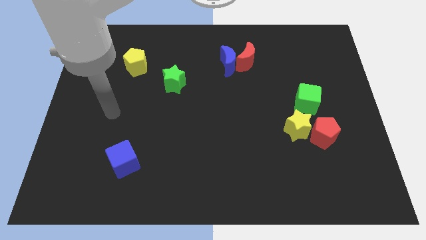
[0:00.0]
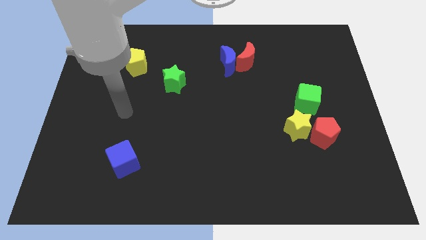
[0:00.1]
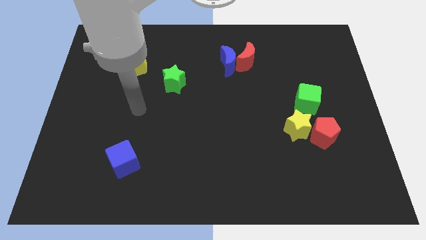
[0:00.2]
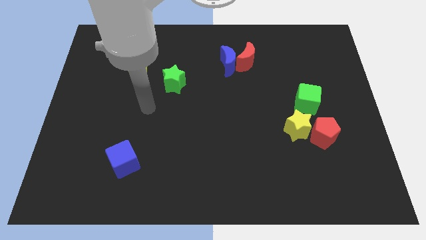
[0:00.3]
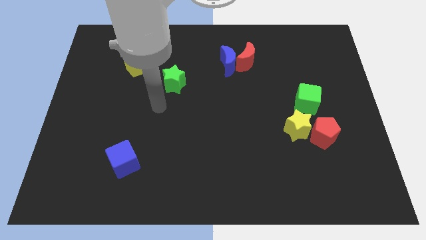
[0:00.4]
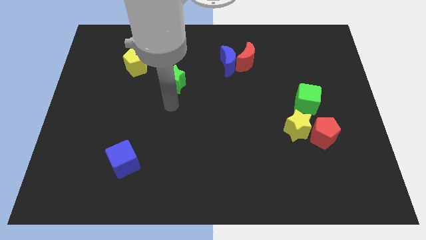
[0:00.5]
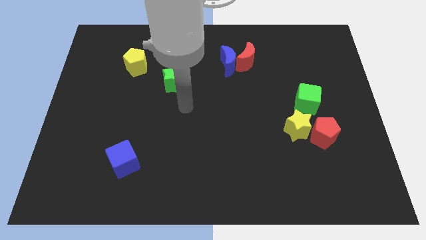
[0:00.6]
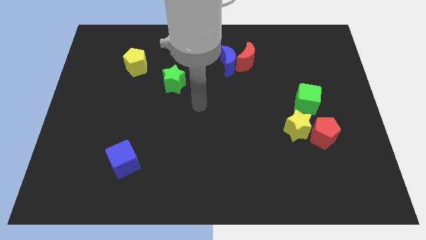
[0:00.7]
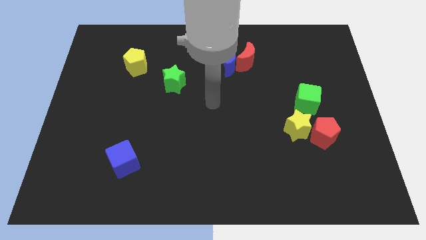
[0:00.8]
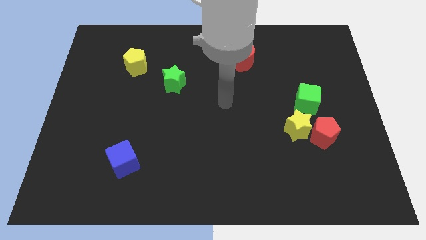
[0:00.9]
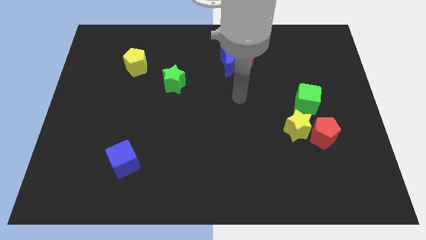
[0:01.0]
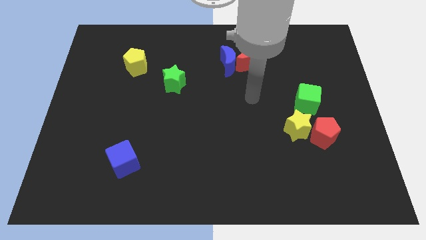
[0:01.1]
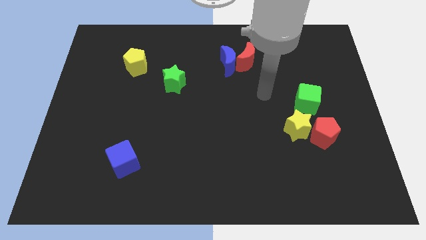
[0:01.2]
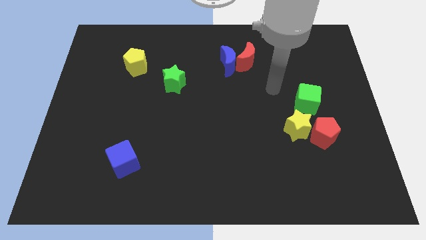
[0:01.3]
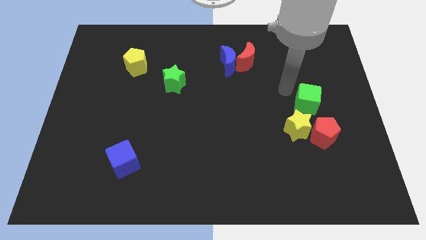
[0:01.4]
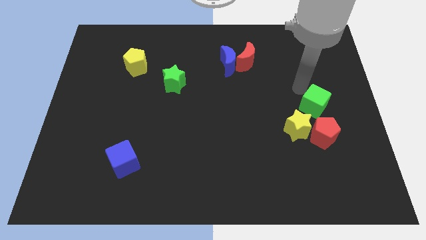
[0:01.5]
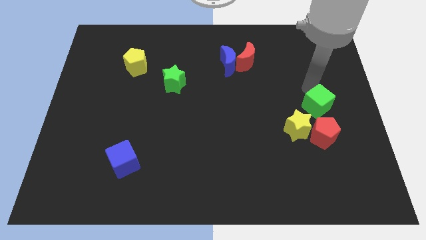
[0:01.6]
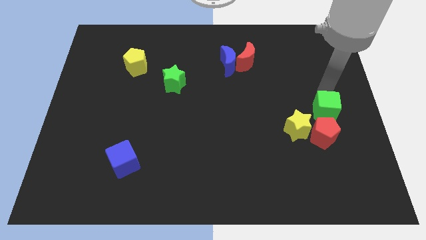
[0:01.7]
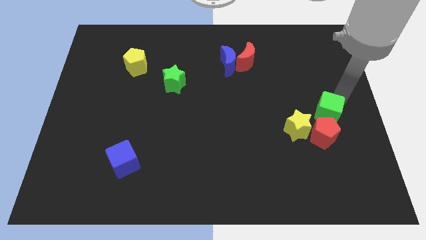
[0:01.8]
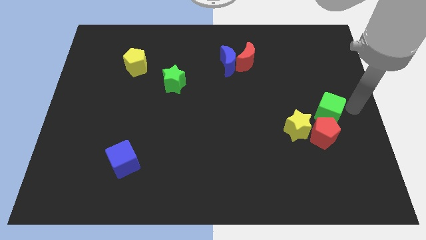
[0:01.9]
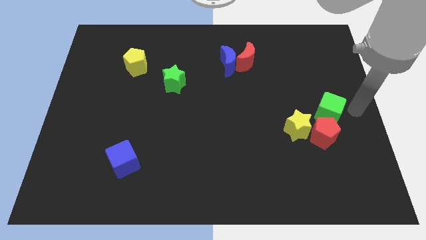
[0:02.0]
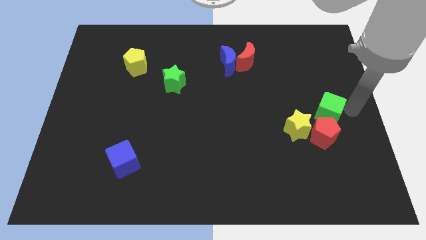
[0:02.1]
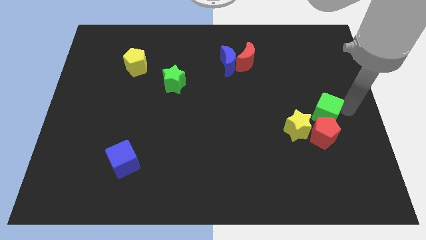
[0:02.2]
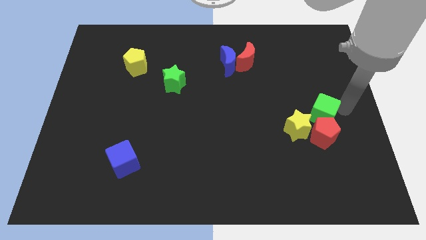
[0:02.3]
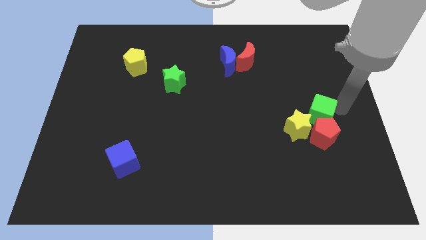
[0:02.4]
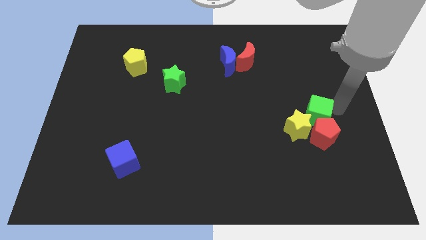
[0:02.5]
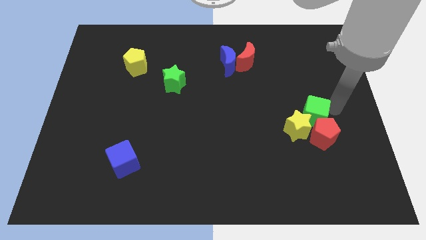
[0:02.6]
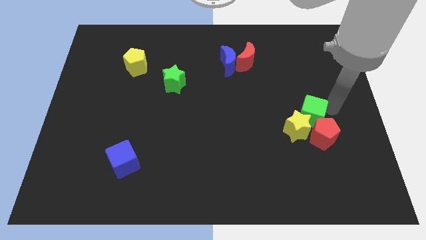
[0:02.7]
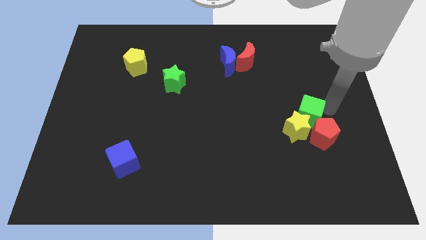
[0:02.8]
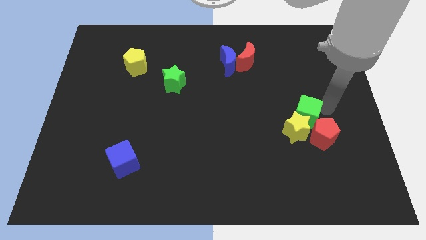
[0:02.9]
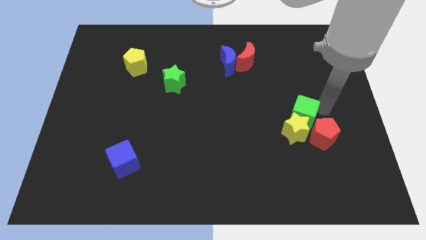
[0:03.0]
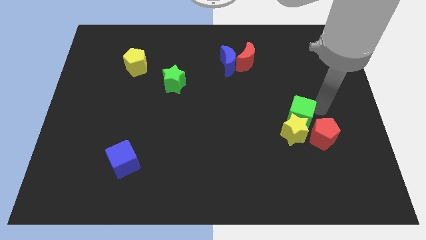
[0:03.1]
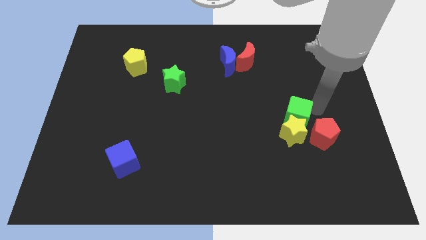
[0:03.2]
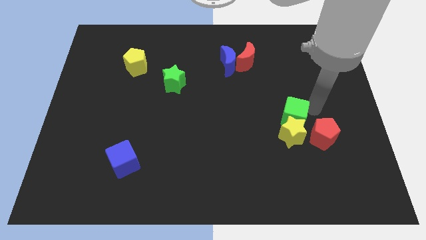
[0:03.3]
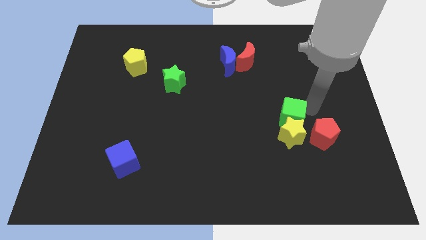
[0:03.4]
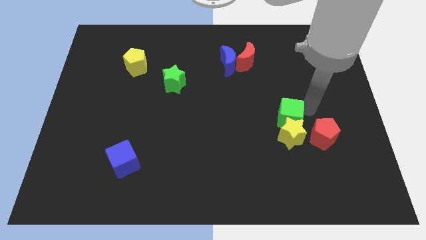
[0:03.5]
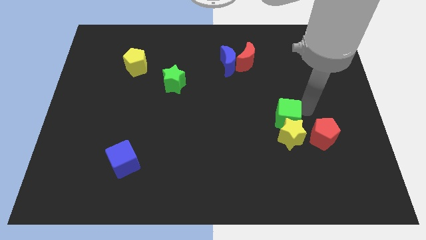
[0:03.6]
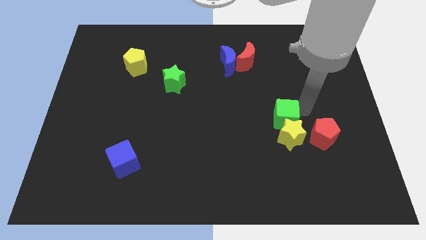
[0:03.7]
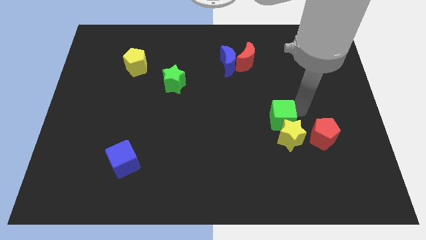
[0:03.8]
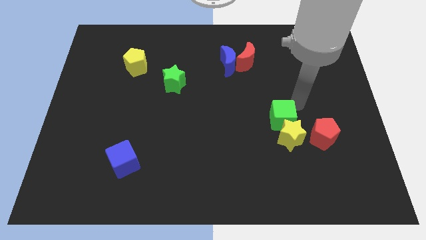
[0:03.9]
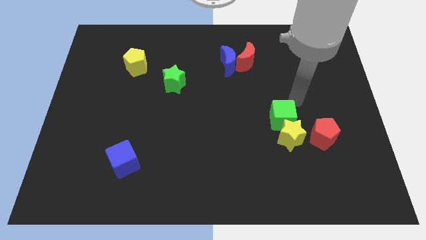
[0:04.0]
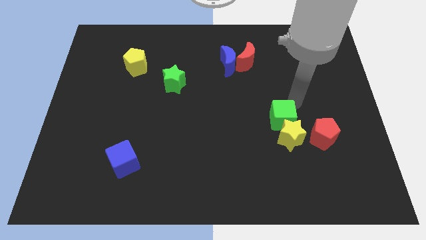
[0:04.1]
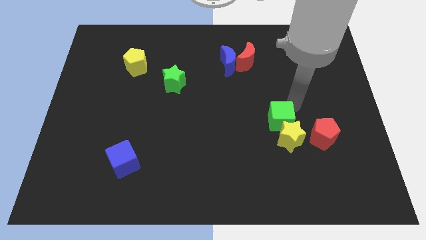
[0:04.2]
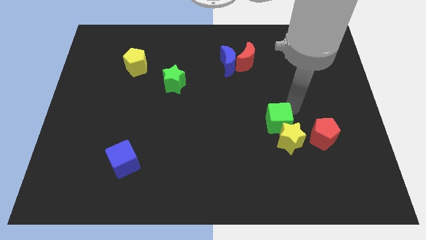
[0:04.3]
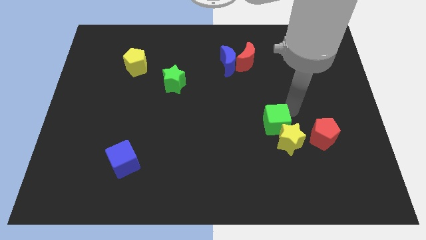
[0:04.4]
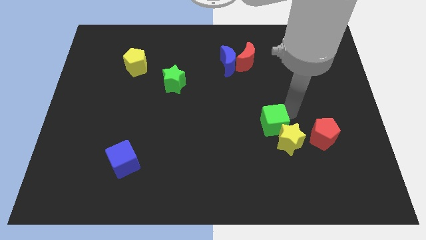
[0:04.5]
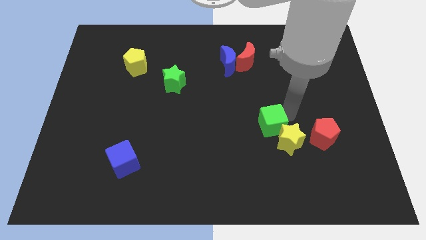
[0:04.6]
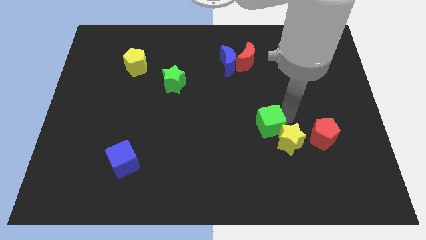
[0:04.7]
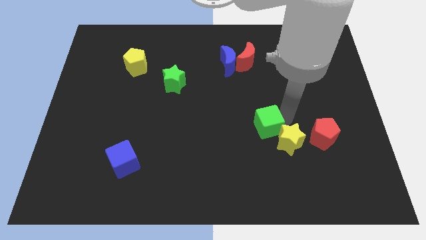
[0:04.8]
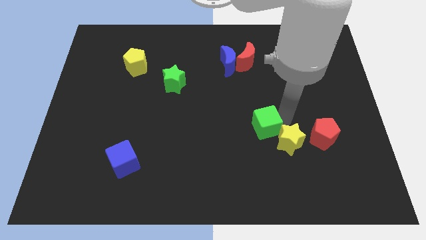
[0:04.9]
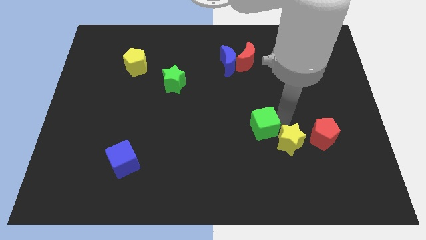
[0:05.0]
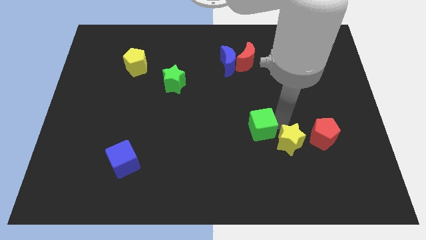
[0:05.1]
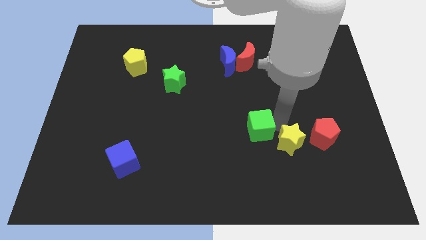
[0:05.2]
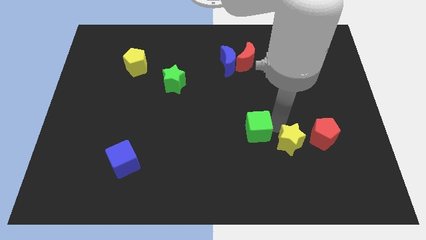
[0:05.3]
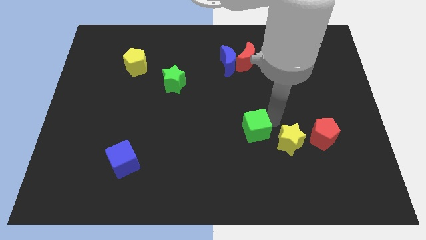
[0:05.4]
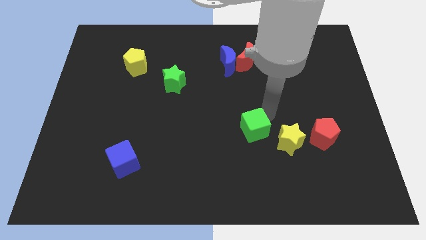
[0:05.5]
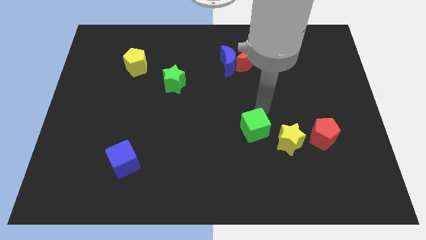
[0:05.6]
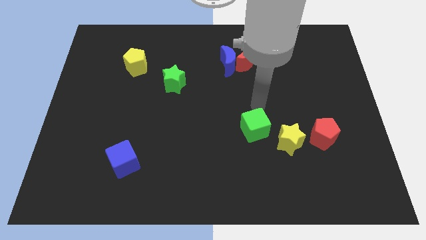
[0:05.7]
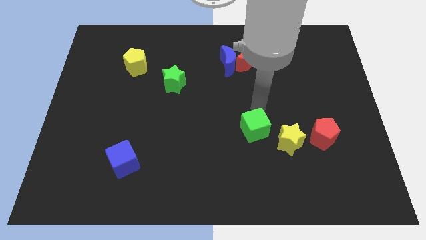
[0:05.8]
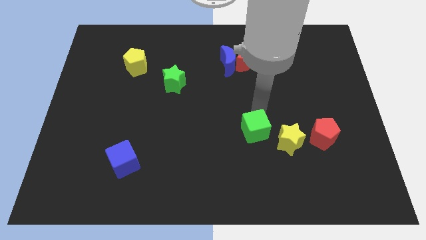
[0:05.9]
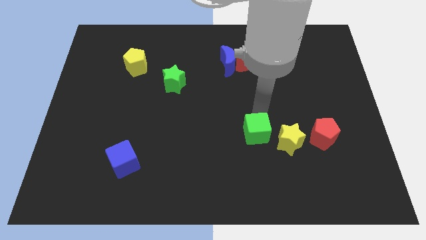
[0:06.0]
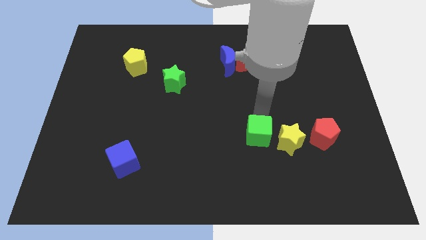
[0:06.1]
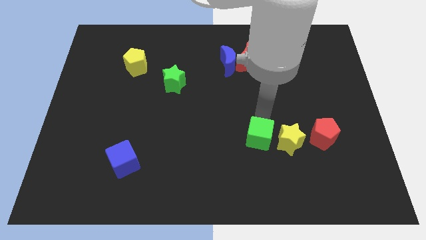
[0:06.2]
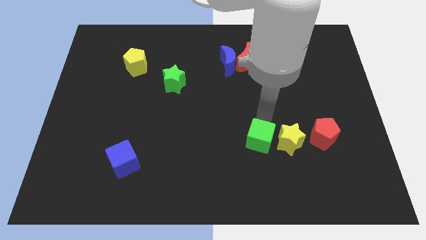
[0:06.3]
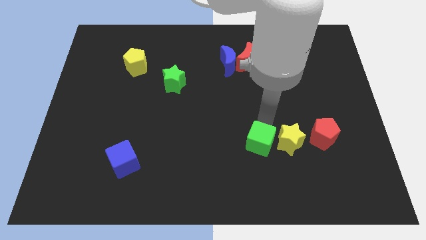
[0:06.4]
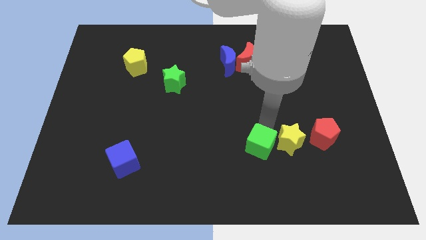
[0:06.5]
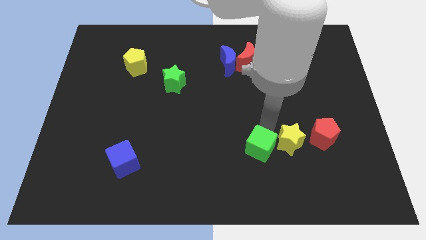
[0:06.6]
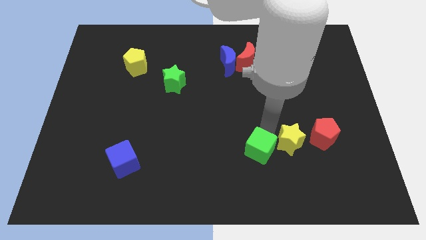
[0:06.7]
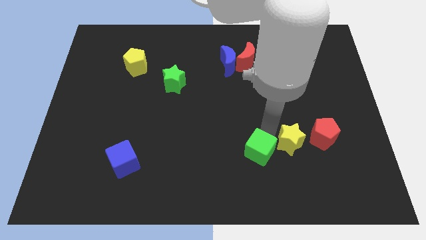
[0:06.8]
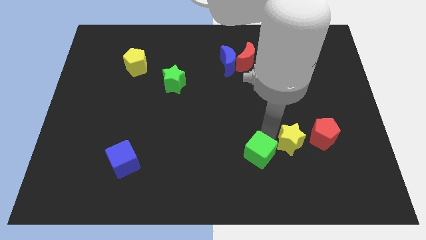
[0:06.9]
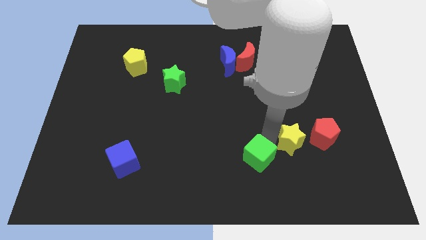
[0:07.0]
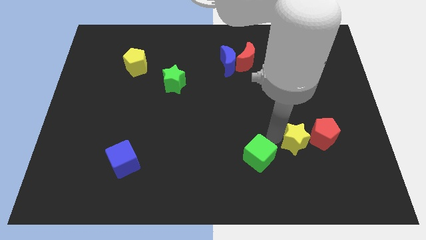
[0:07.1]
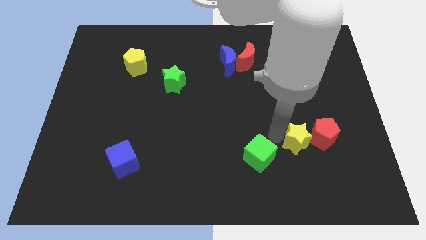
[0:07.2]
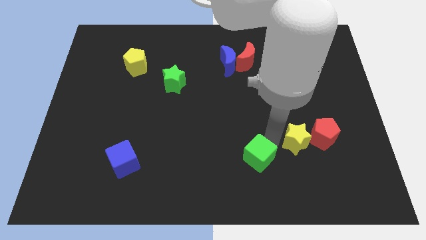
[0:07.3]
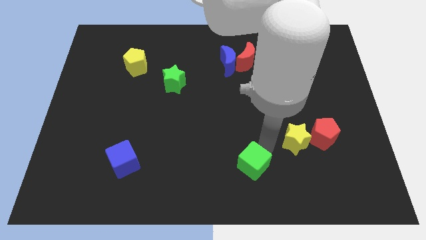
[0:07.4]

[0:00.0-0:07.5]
push the green cube to the bottom
